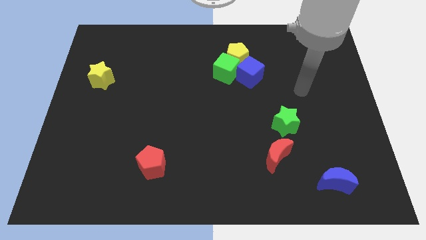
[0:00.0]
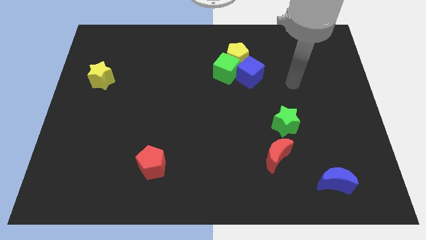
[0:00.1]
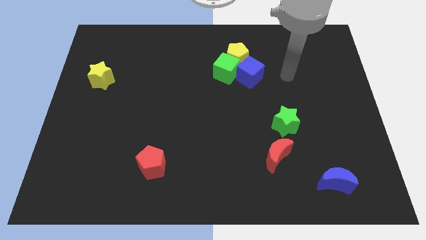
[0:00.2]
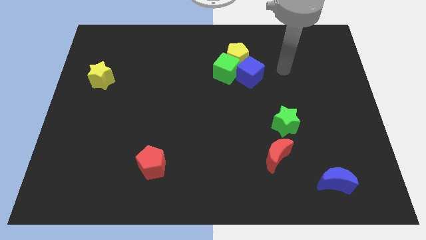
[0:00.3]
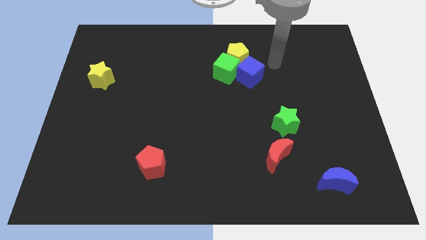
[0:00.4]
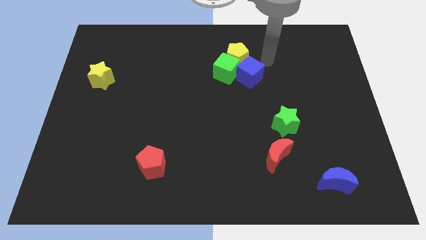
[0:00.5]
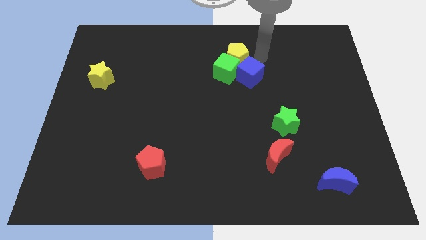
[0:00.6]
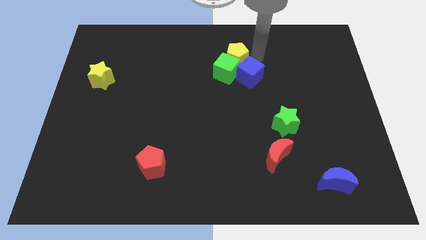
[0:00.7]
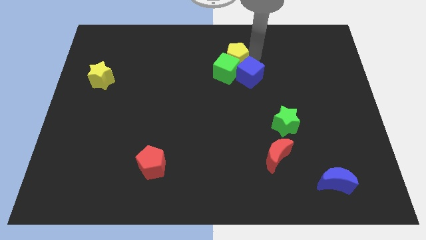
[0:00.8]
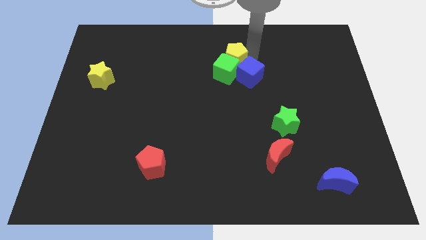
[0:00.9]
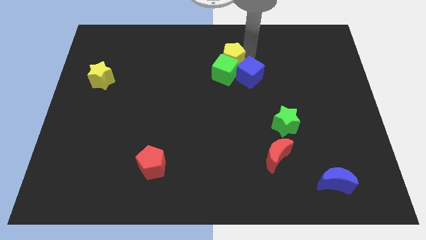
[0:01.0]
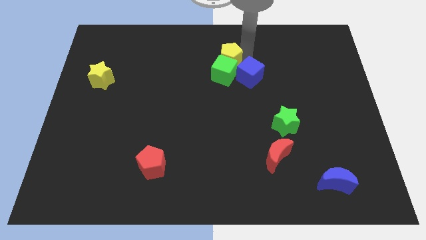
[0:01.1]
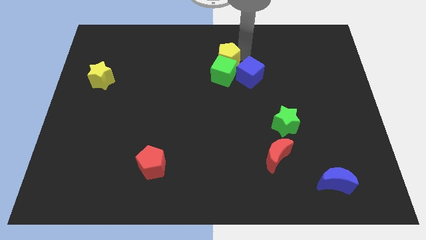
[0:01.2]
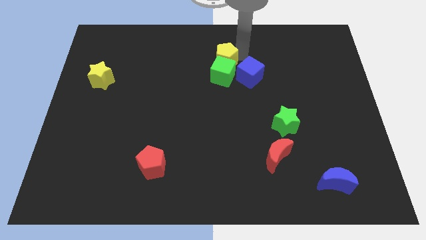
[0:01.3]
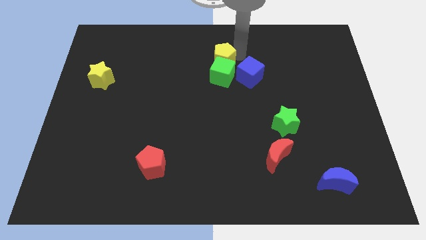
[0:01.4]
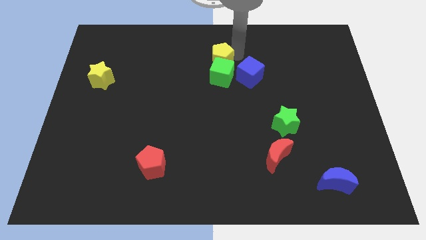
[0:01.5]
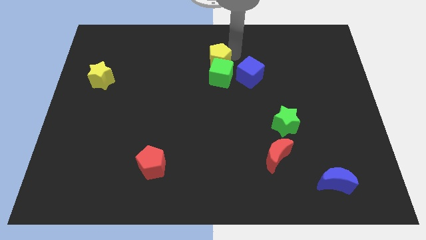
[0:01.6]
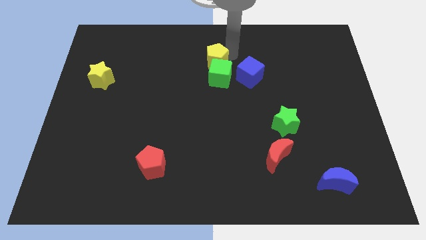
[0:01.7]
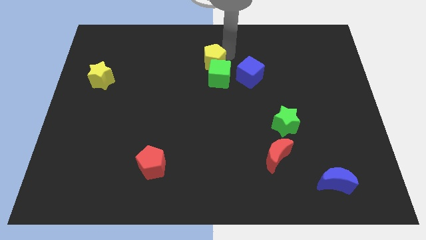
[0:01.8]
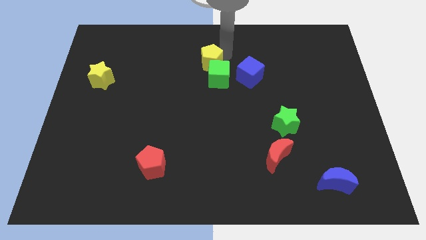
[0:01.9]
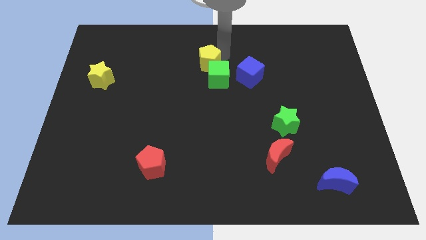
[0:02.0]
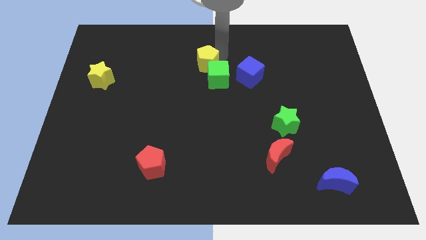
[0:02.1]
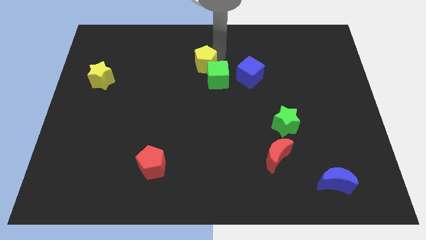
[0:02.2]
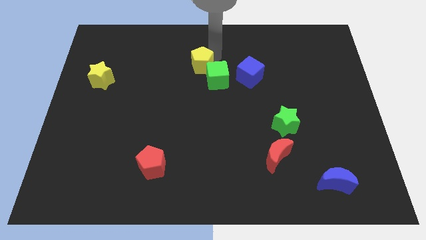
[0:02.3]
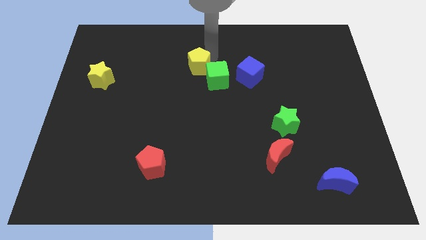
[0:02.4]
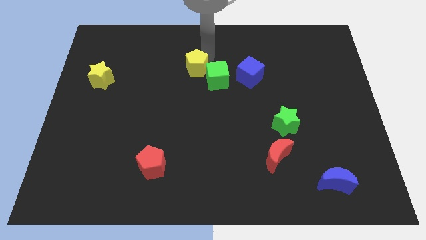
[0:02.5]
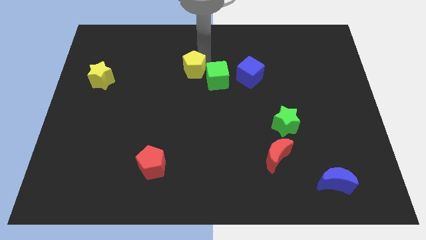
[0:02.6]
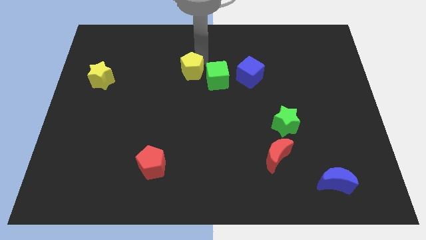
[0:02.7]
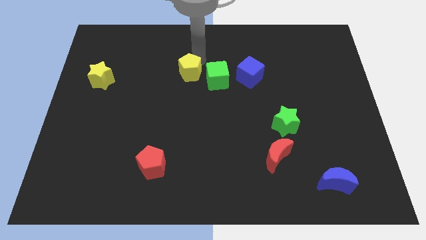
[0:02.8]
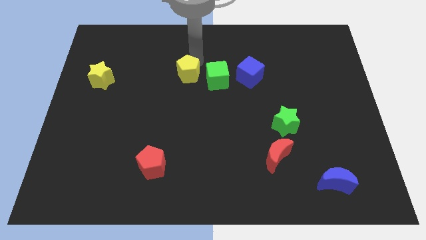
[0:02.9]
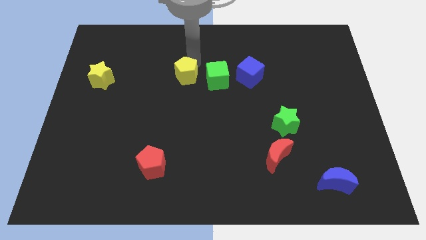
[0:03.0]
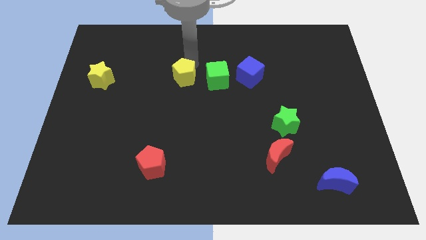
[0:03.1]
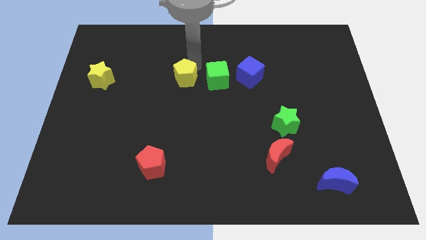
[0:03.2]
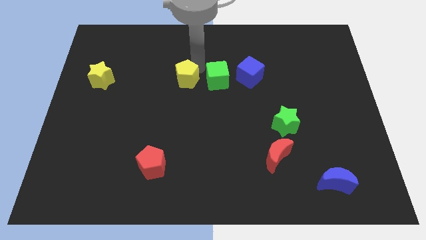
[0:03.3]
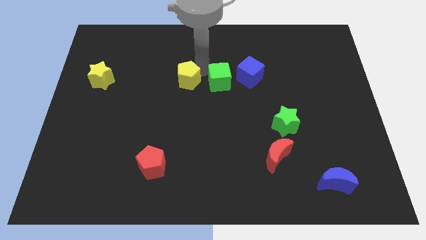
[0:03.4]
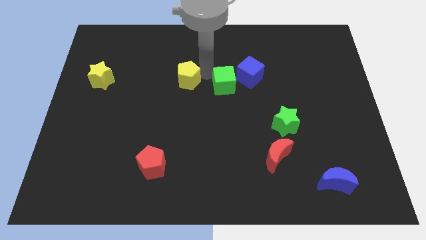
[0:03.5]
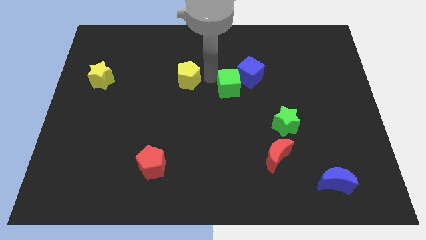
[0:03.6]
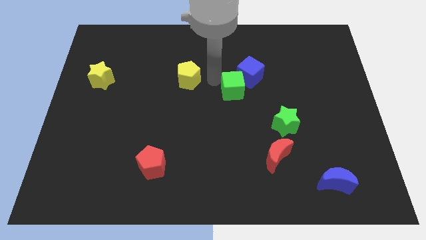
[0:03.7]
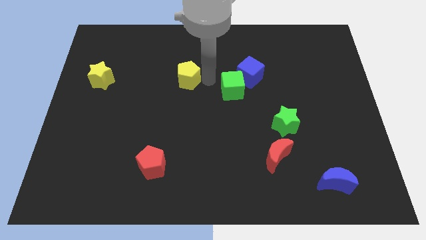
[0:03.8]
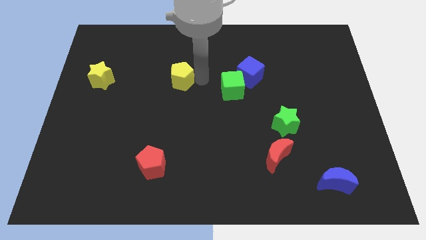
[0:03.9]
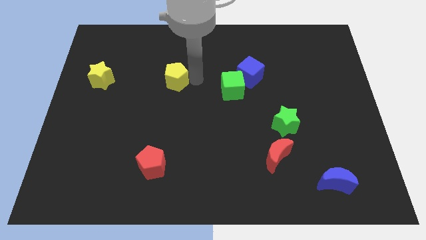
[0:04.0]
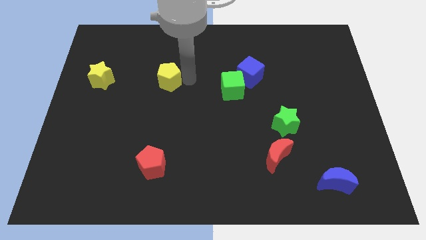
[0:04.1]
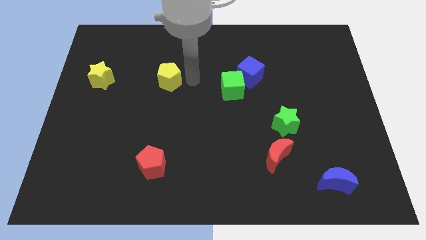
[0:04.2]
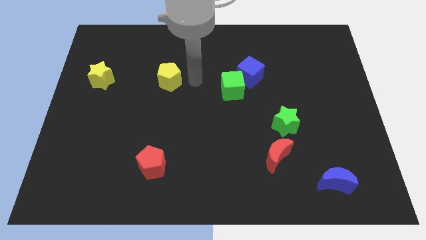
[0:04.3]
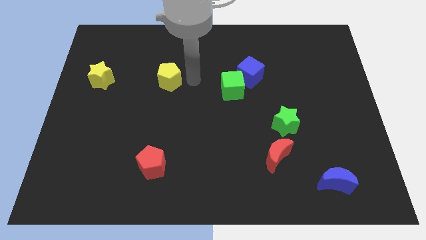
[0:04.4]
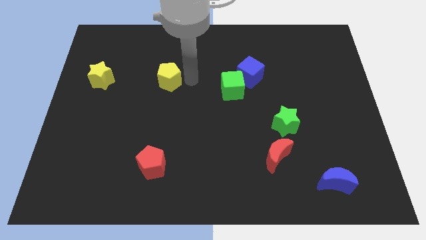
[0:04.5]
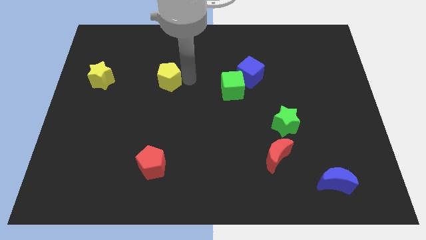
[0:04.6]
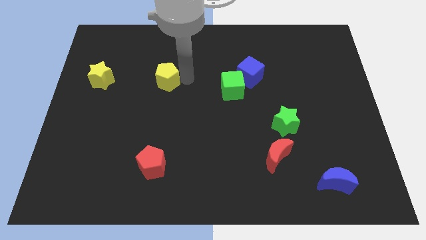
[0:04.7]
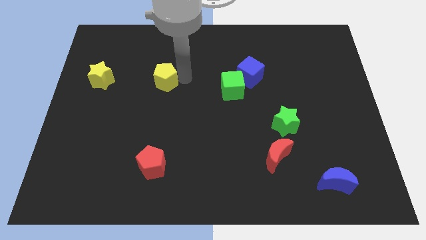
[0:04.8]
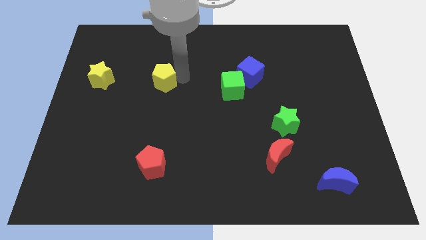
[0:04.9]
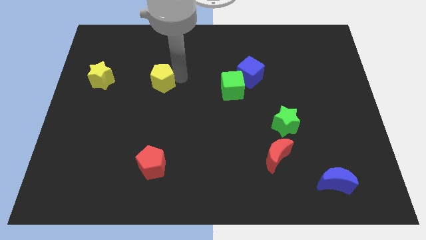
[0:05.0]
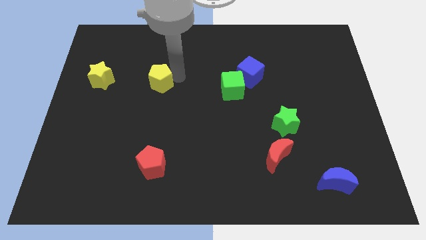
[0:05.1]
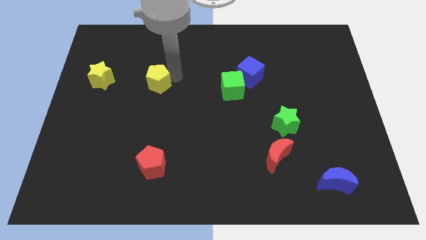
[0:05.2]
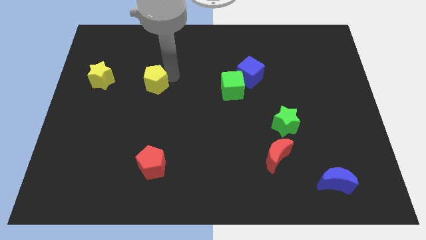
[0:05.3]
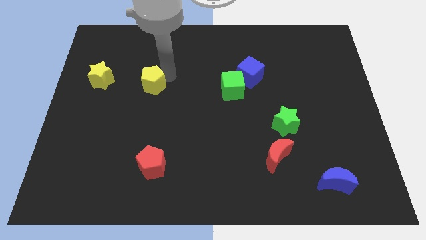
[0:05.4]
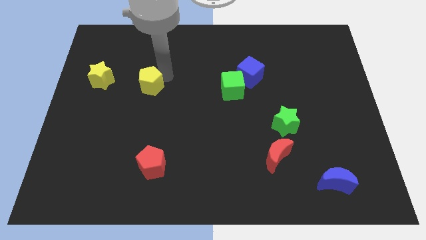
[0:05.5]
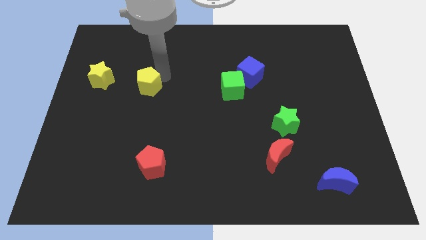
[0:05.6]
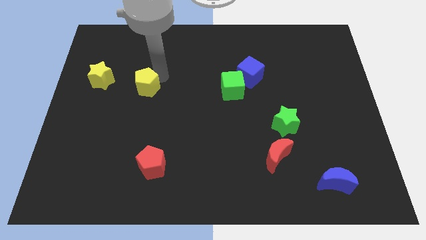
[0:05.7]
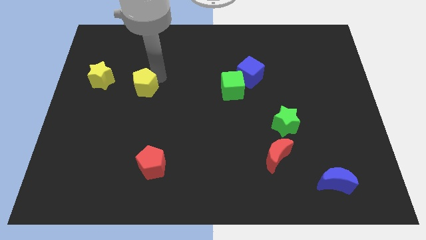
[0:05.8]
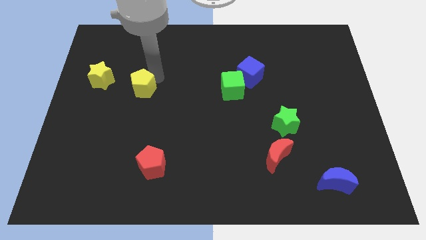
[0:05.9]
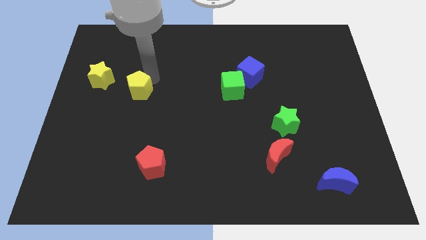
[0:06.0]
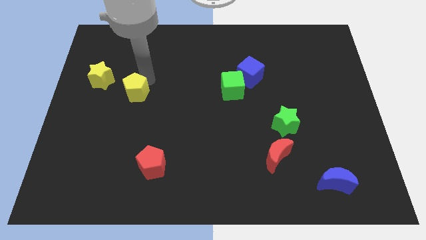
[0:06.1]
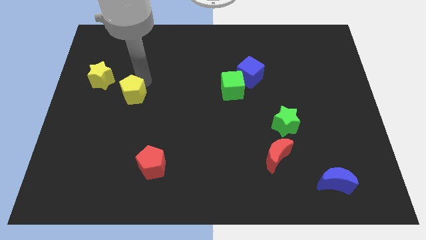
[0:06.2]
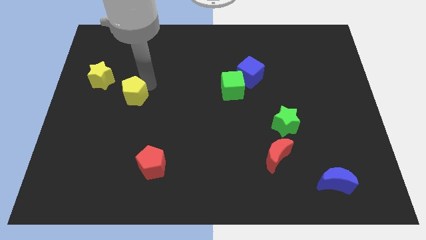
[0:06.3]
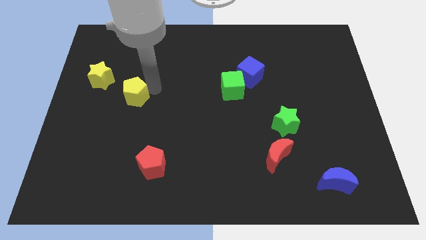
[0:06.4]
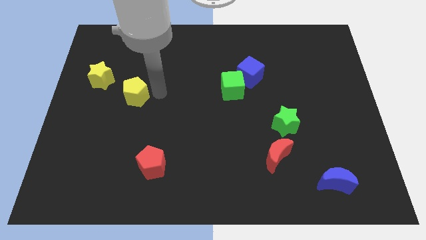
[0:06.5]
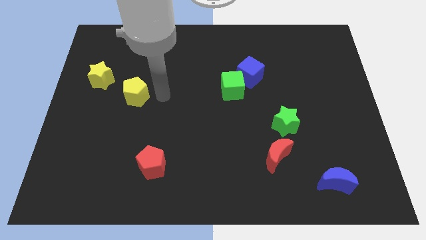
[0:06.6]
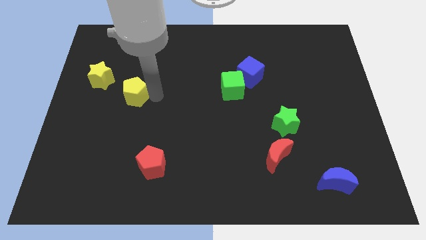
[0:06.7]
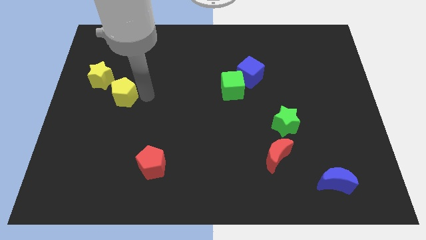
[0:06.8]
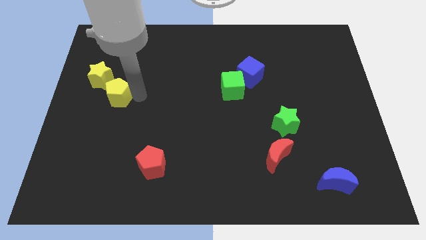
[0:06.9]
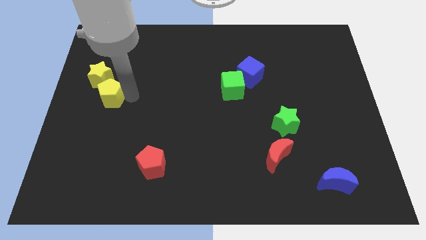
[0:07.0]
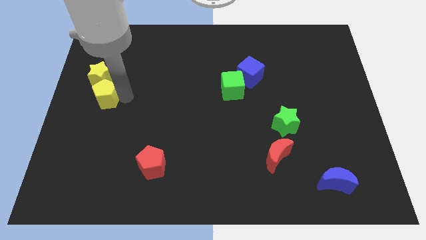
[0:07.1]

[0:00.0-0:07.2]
push the yellow pentagon to the left side
